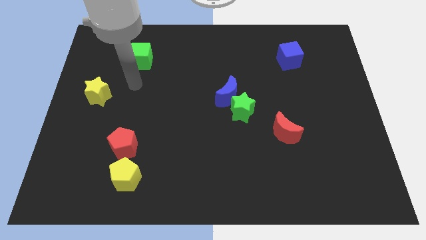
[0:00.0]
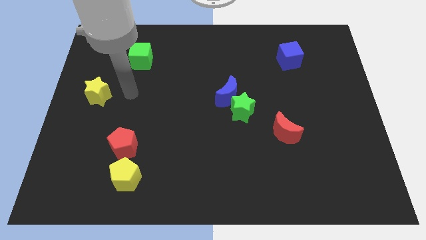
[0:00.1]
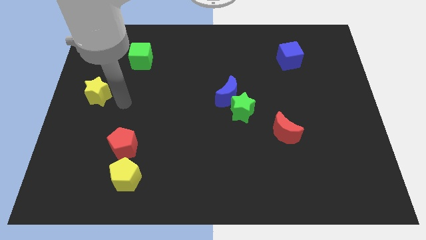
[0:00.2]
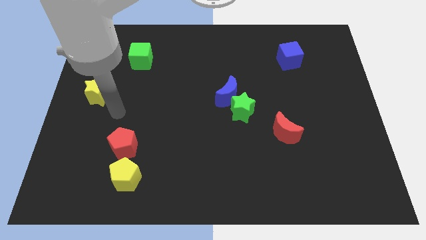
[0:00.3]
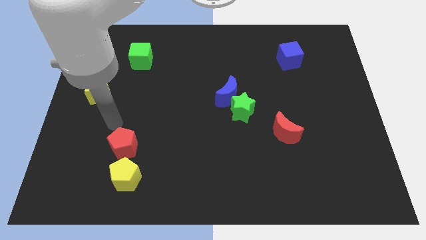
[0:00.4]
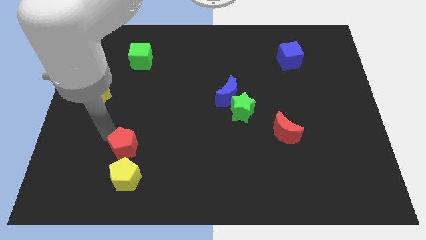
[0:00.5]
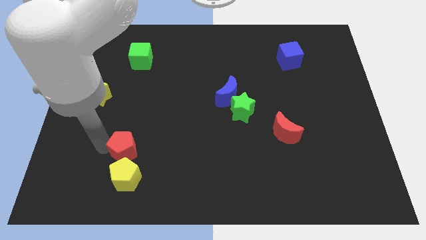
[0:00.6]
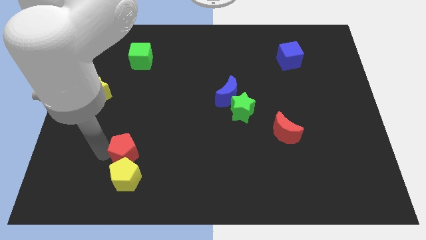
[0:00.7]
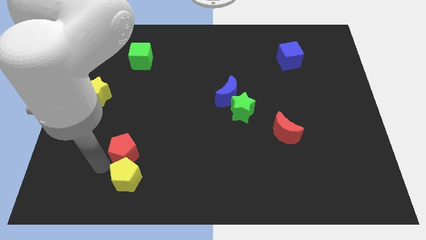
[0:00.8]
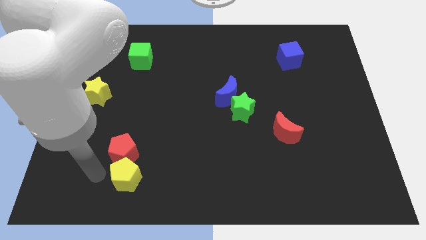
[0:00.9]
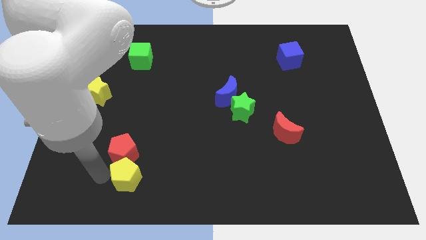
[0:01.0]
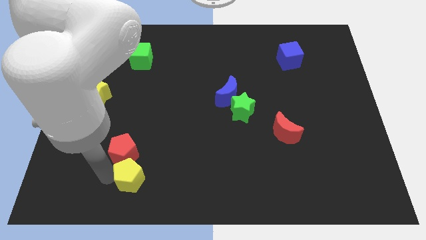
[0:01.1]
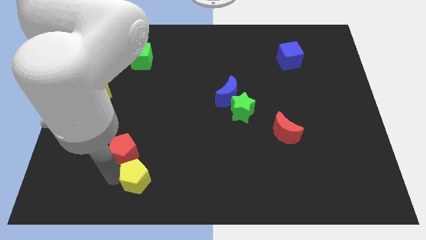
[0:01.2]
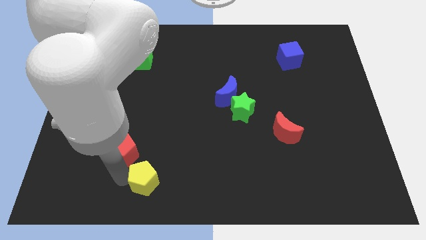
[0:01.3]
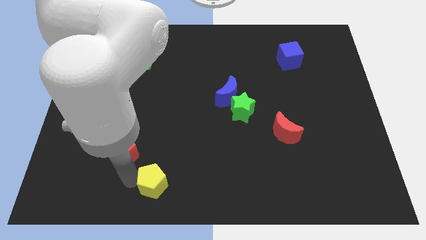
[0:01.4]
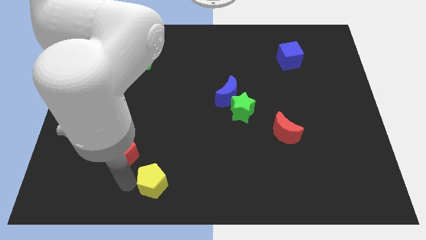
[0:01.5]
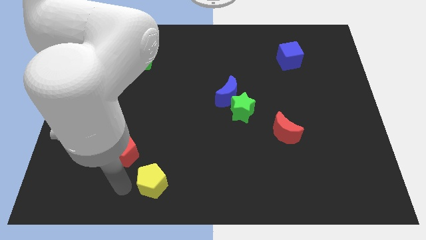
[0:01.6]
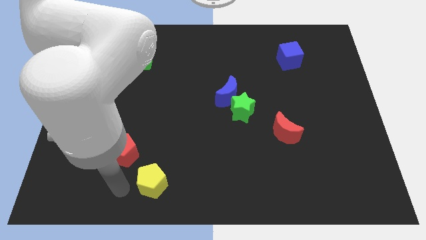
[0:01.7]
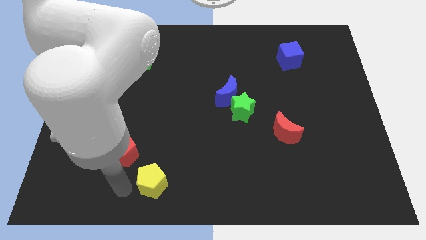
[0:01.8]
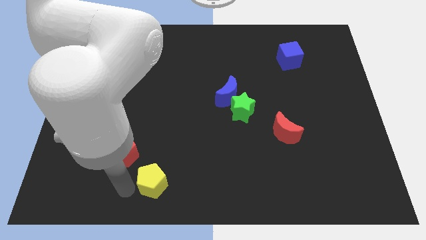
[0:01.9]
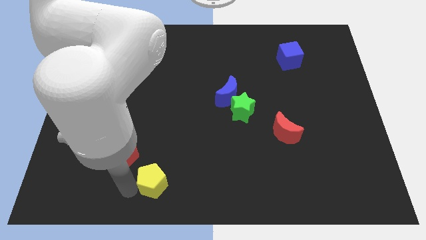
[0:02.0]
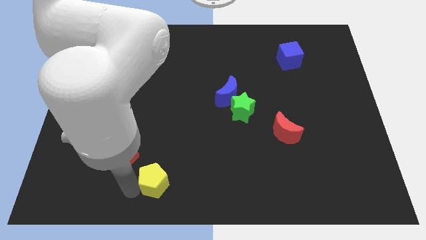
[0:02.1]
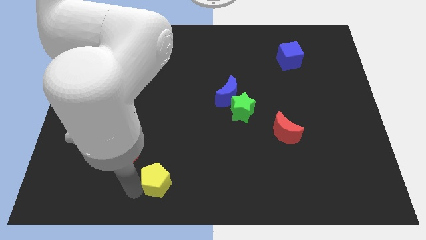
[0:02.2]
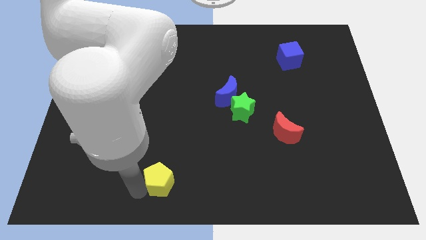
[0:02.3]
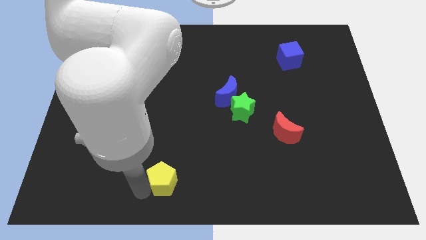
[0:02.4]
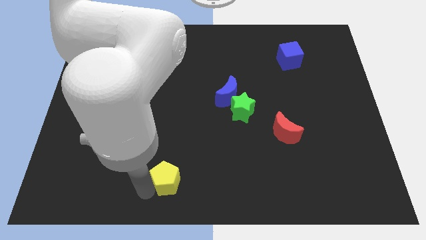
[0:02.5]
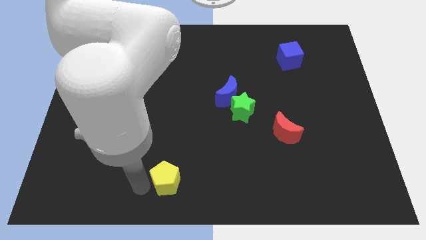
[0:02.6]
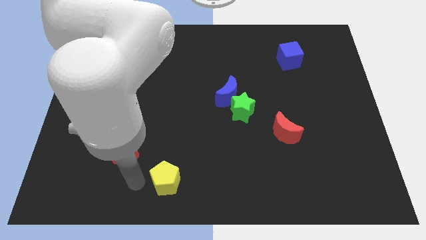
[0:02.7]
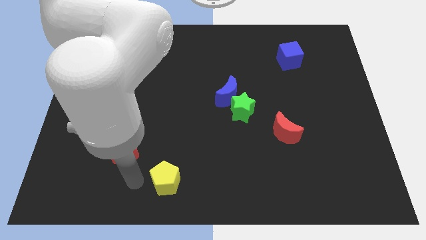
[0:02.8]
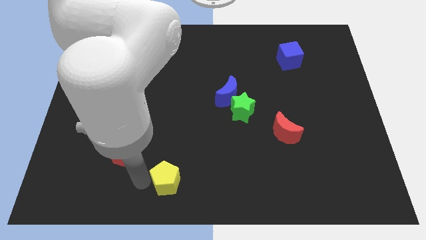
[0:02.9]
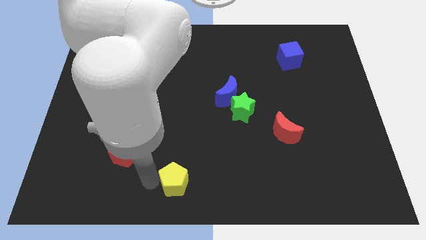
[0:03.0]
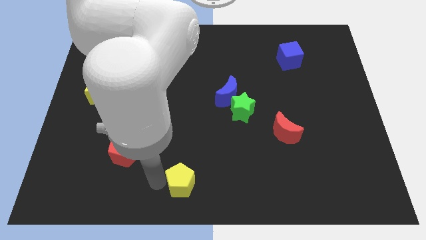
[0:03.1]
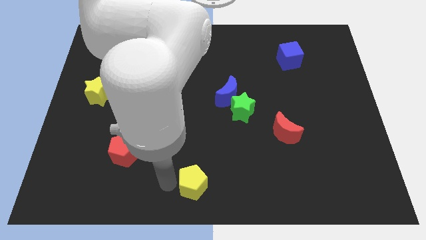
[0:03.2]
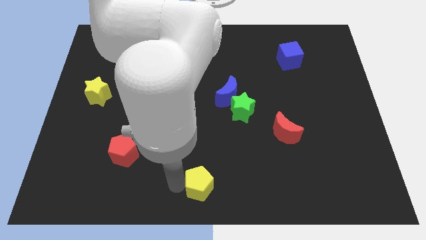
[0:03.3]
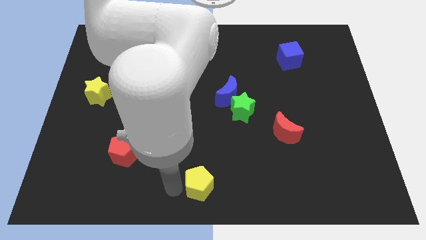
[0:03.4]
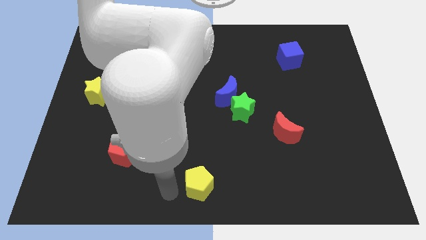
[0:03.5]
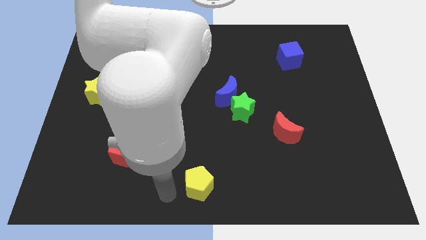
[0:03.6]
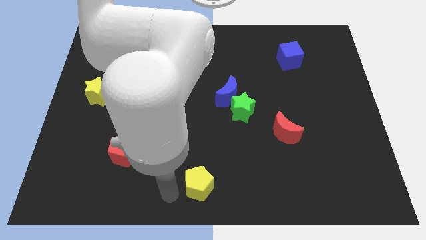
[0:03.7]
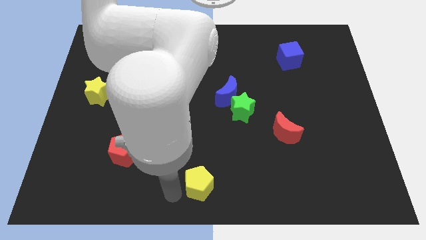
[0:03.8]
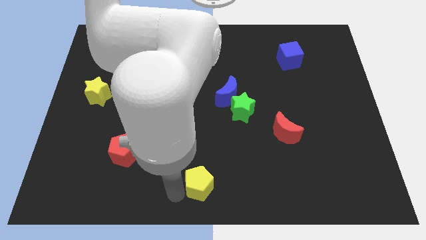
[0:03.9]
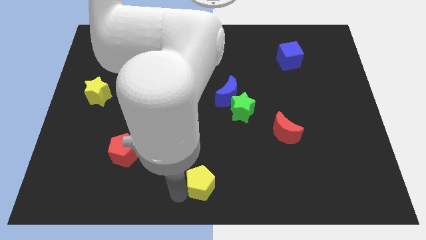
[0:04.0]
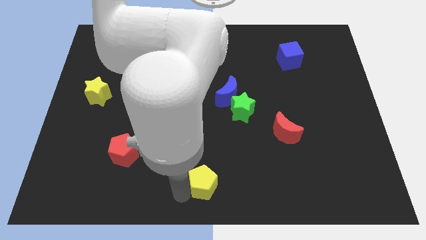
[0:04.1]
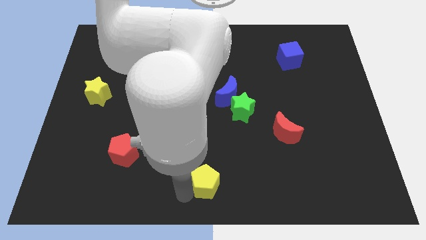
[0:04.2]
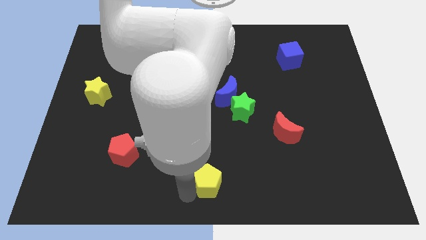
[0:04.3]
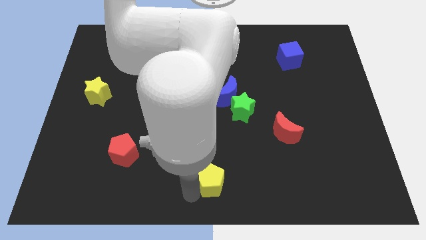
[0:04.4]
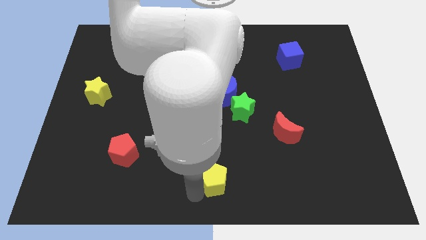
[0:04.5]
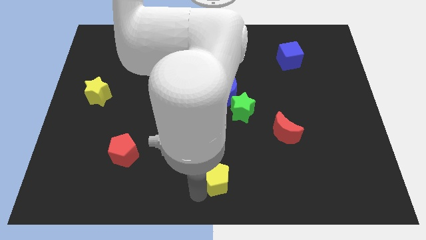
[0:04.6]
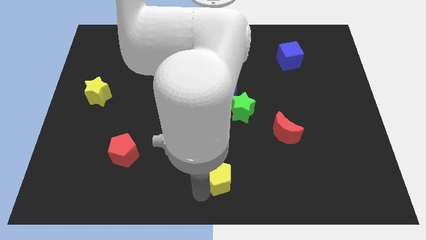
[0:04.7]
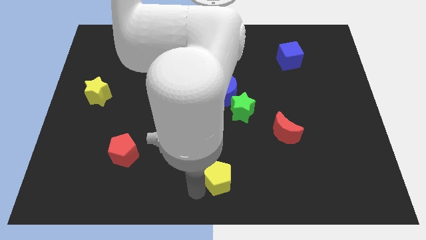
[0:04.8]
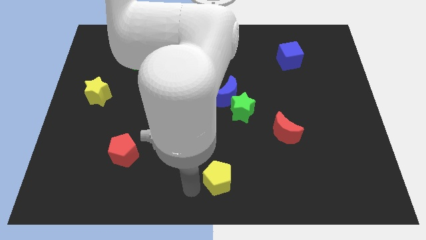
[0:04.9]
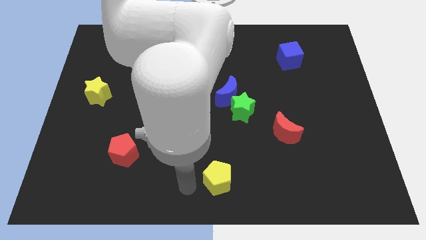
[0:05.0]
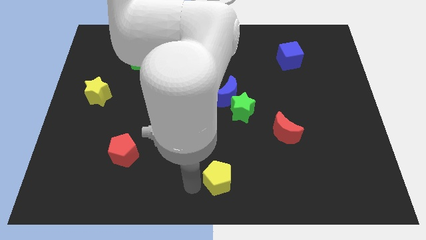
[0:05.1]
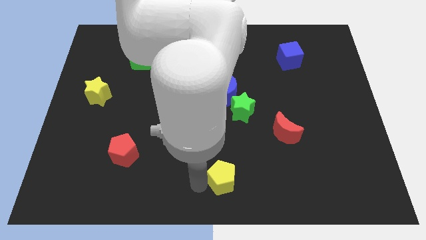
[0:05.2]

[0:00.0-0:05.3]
push the yellow pentagon right

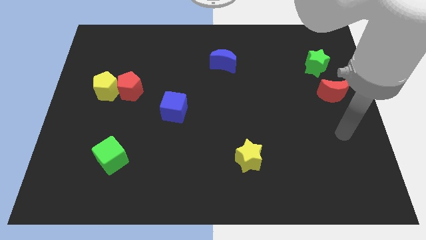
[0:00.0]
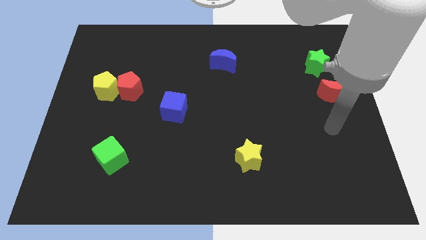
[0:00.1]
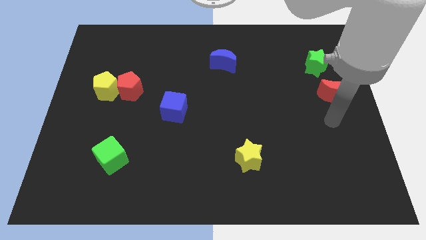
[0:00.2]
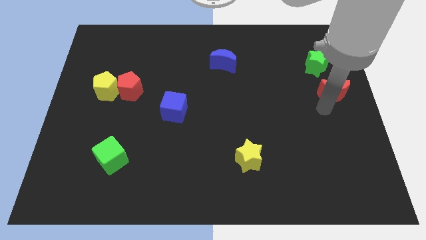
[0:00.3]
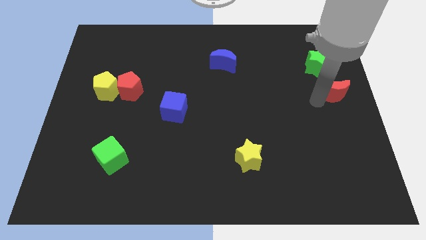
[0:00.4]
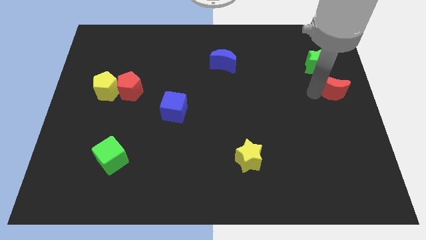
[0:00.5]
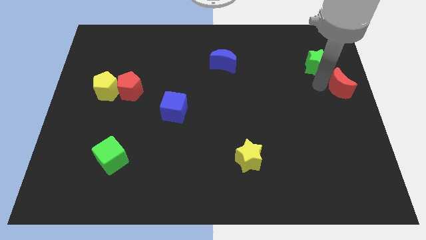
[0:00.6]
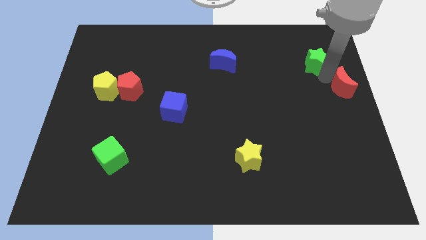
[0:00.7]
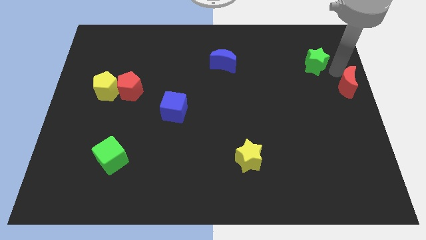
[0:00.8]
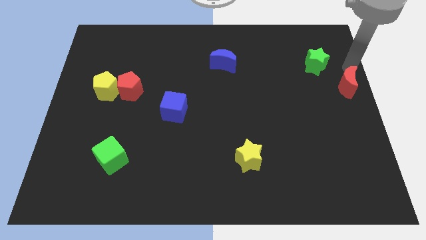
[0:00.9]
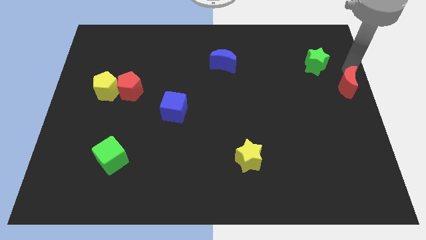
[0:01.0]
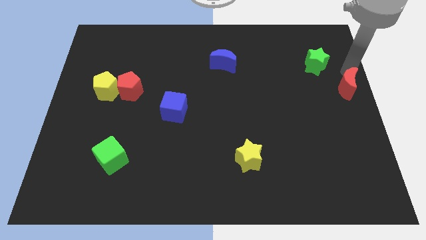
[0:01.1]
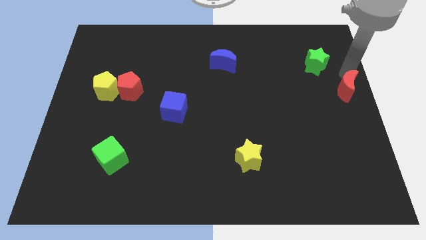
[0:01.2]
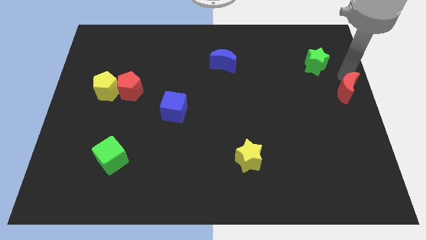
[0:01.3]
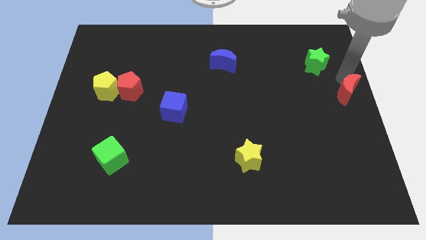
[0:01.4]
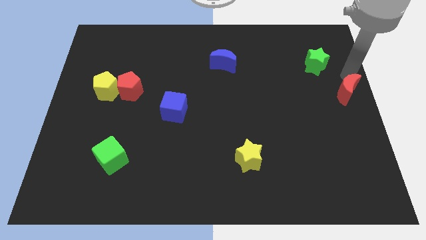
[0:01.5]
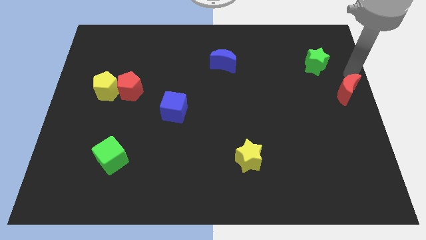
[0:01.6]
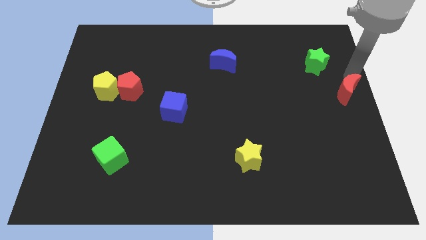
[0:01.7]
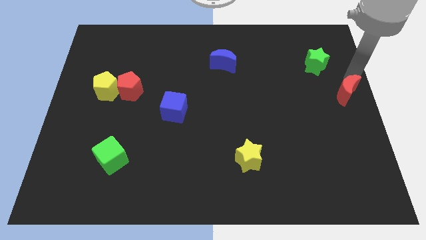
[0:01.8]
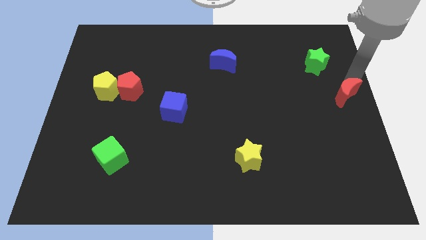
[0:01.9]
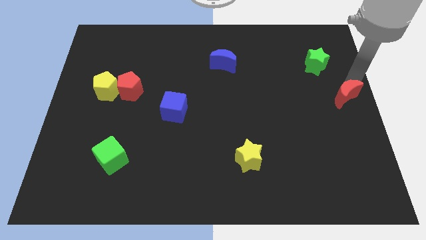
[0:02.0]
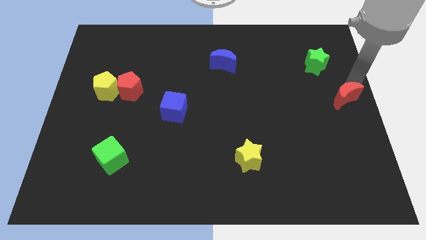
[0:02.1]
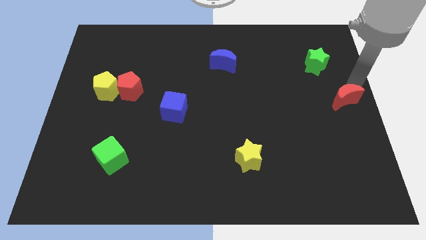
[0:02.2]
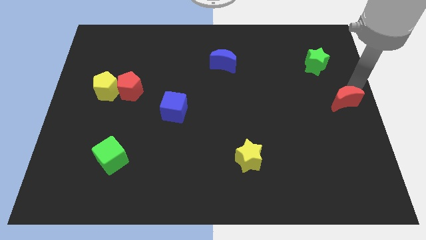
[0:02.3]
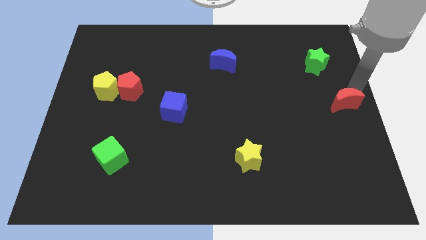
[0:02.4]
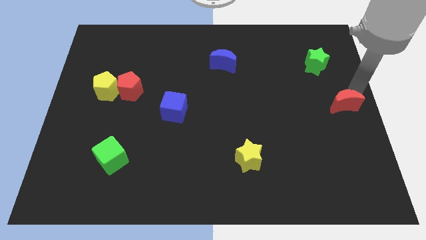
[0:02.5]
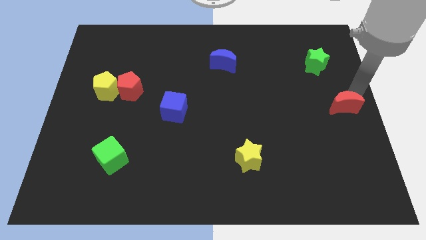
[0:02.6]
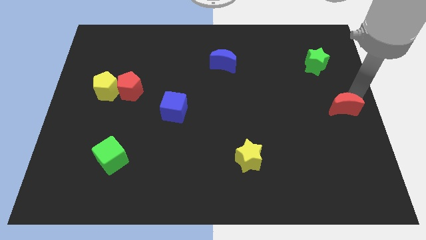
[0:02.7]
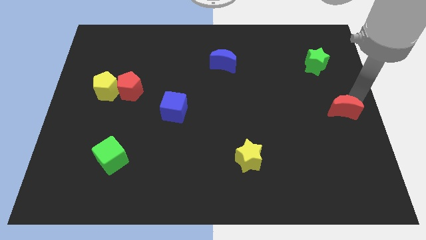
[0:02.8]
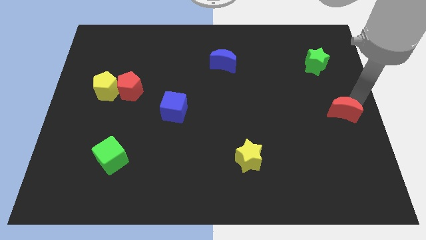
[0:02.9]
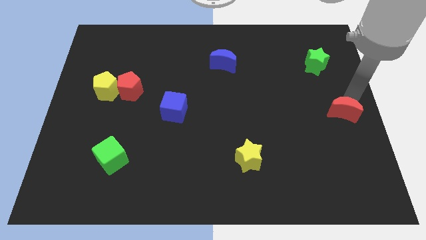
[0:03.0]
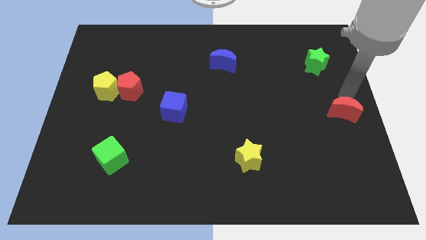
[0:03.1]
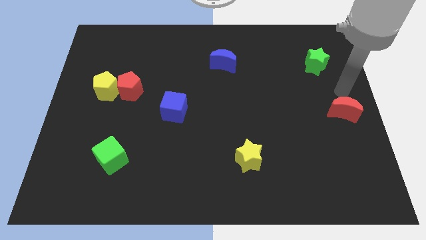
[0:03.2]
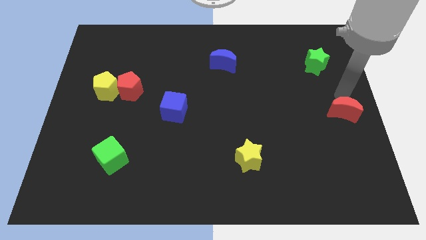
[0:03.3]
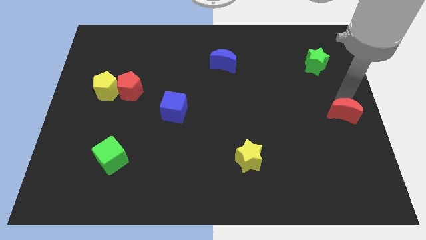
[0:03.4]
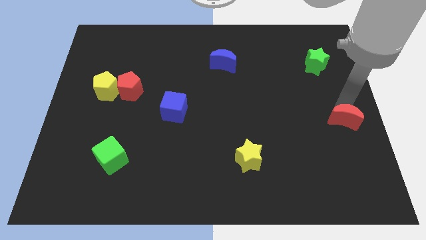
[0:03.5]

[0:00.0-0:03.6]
move the red moon a little downwards
